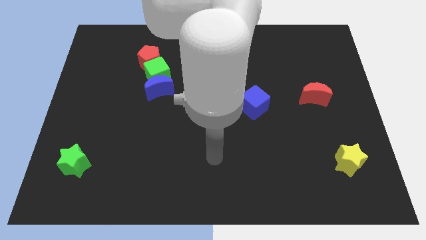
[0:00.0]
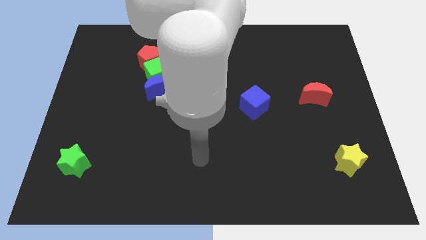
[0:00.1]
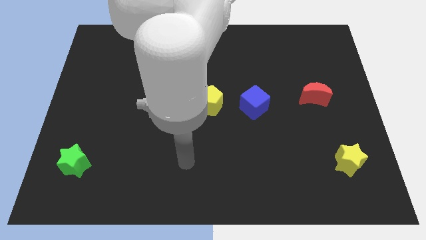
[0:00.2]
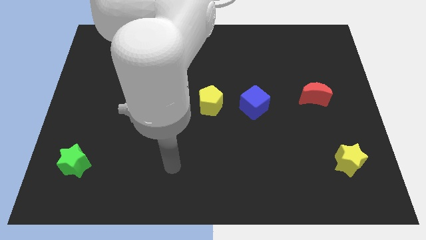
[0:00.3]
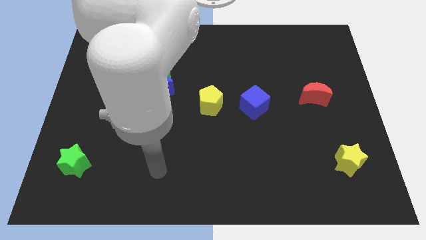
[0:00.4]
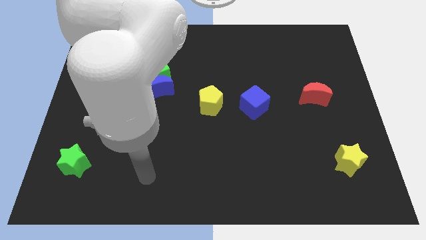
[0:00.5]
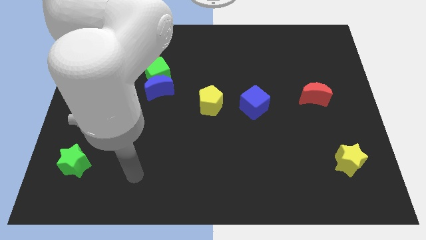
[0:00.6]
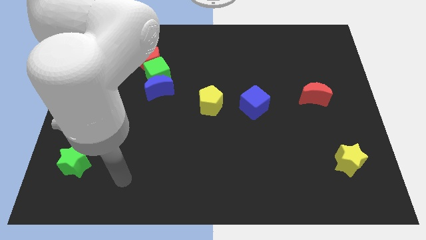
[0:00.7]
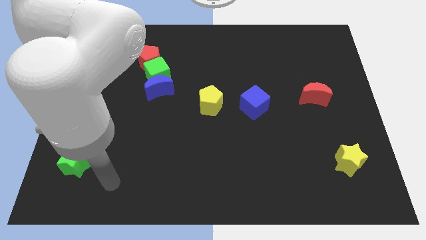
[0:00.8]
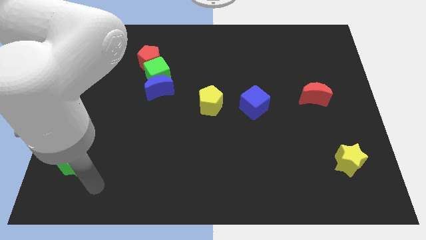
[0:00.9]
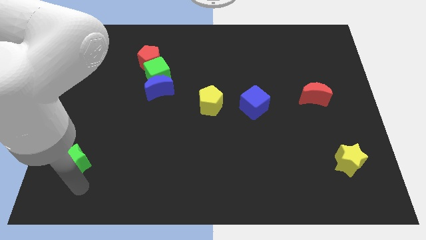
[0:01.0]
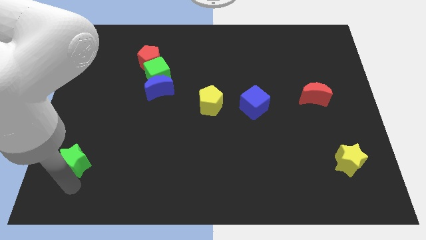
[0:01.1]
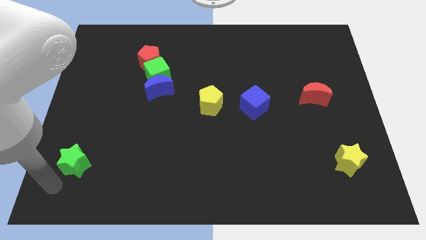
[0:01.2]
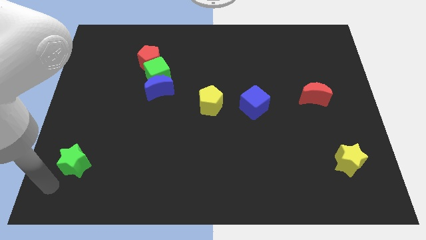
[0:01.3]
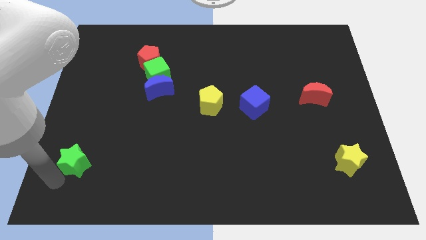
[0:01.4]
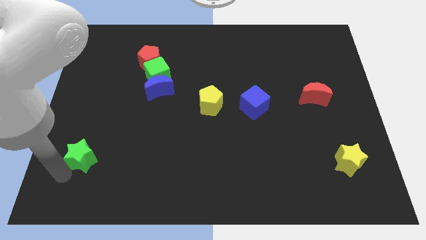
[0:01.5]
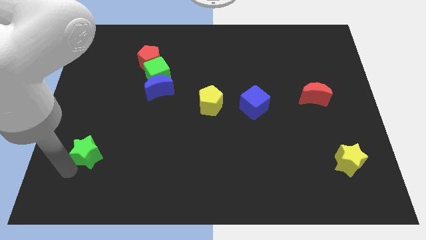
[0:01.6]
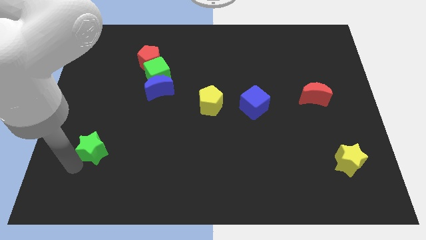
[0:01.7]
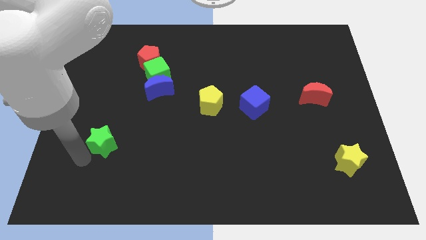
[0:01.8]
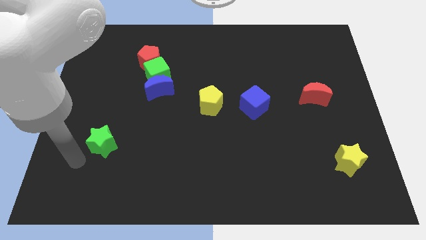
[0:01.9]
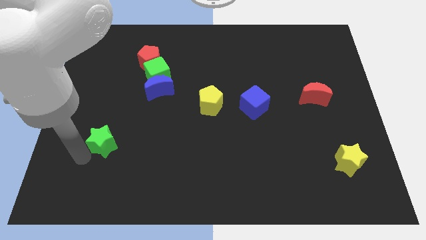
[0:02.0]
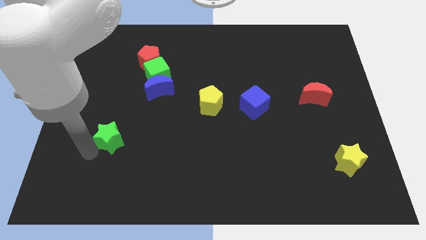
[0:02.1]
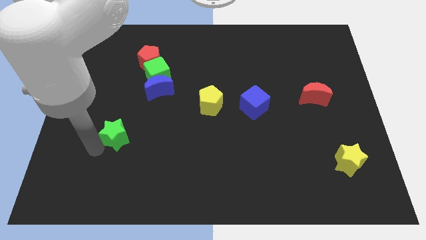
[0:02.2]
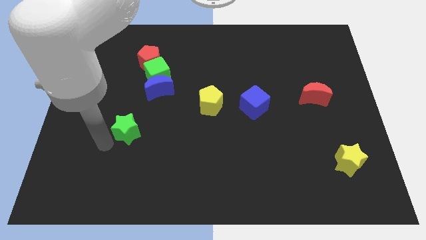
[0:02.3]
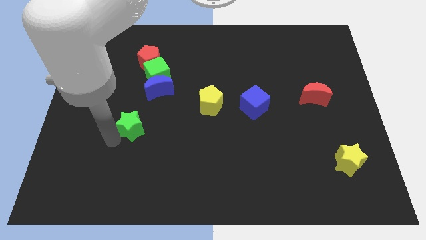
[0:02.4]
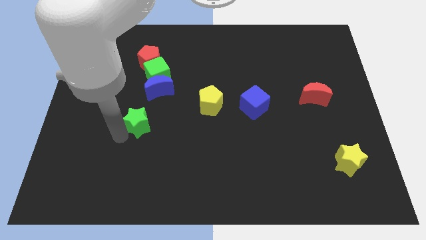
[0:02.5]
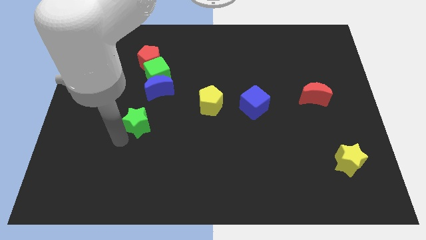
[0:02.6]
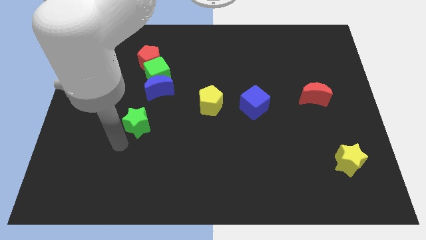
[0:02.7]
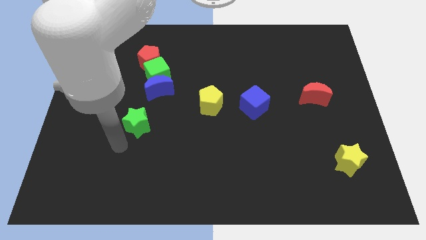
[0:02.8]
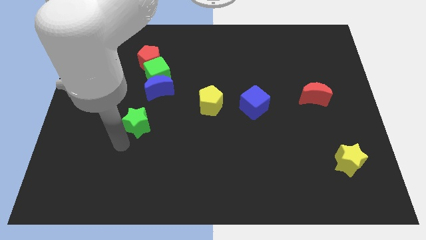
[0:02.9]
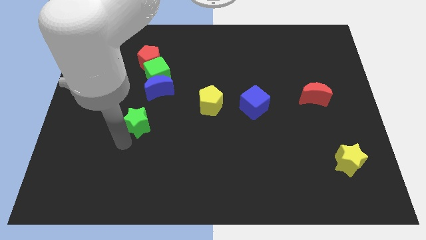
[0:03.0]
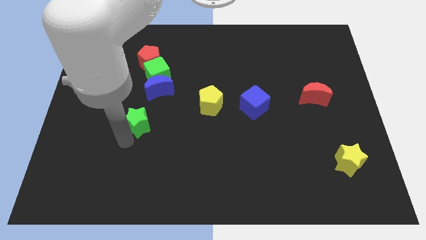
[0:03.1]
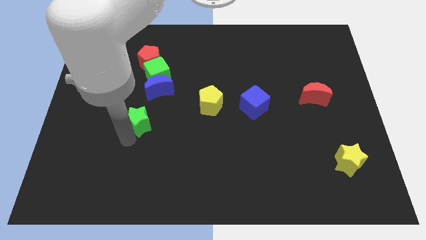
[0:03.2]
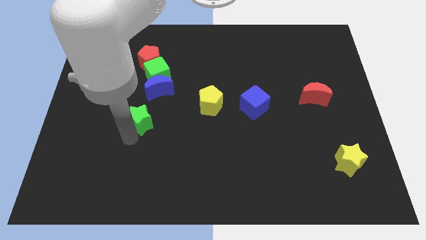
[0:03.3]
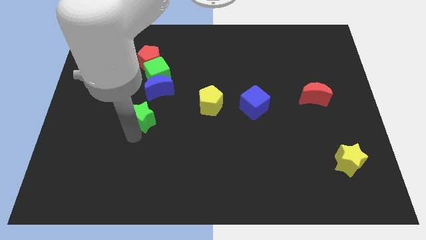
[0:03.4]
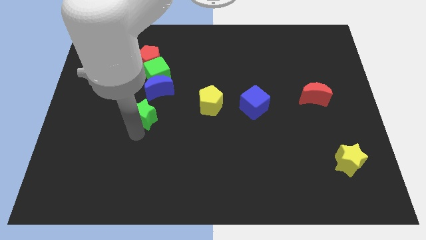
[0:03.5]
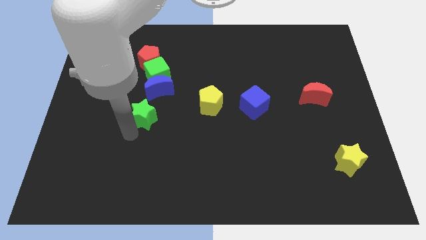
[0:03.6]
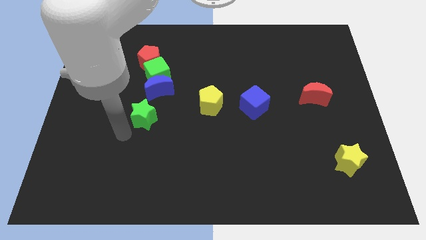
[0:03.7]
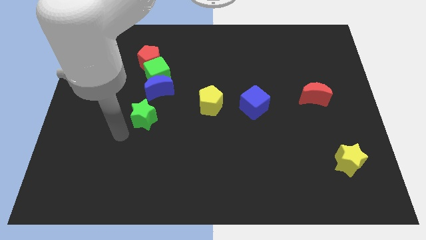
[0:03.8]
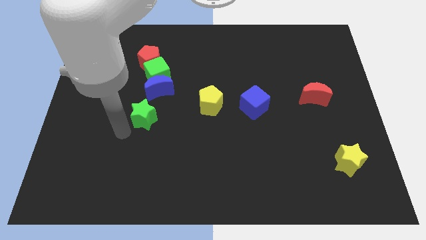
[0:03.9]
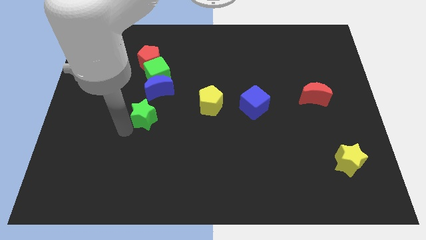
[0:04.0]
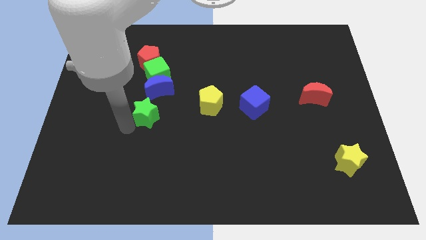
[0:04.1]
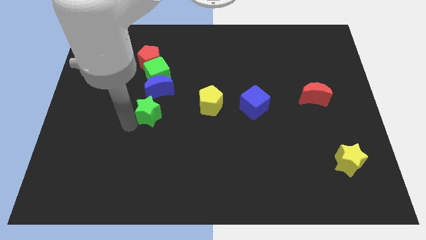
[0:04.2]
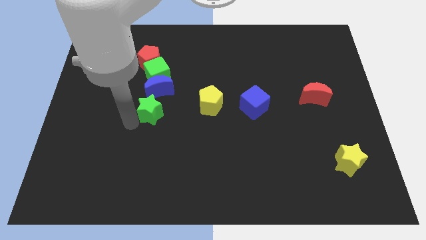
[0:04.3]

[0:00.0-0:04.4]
slide the green star up and right diagonally

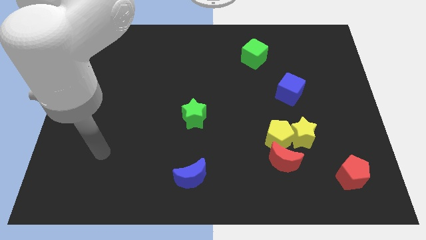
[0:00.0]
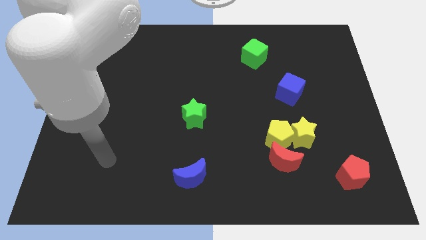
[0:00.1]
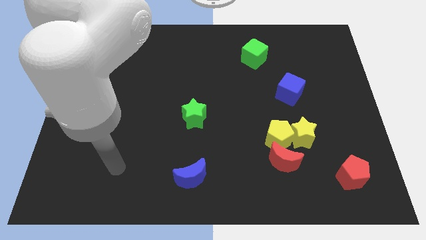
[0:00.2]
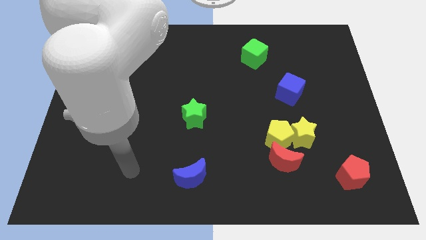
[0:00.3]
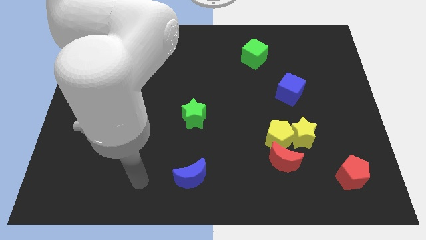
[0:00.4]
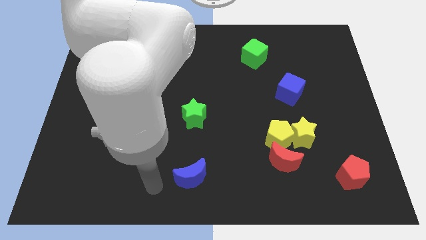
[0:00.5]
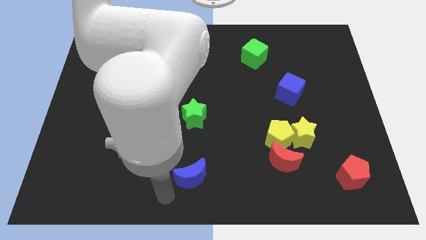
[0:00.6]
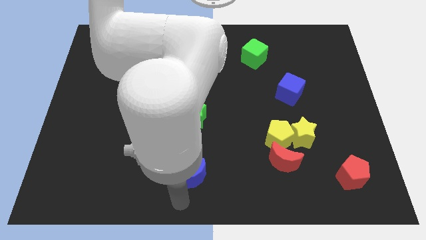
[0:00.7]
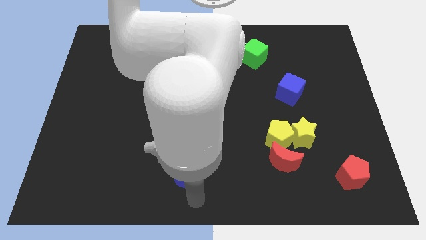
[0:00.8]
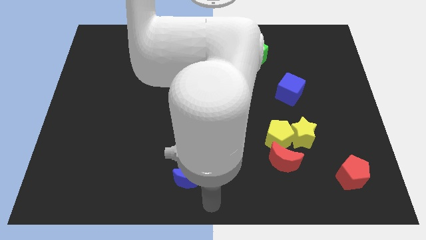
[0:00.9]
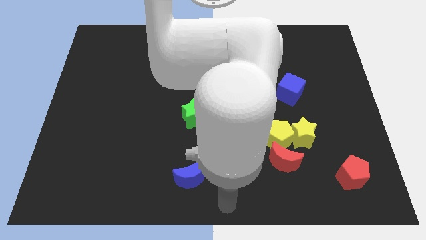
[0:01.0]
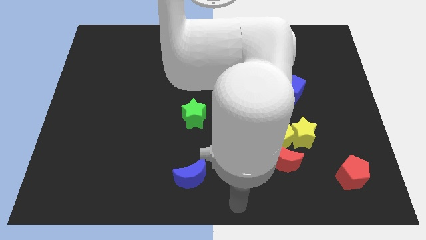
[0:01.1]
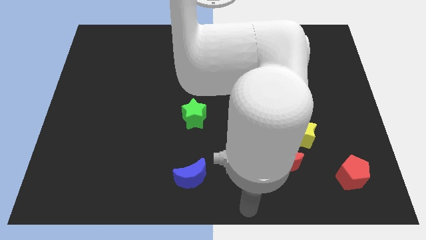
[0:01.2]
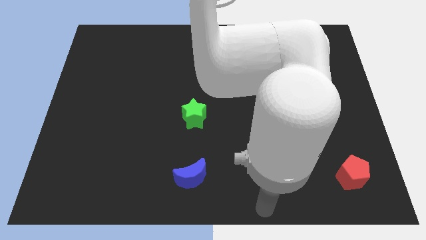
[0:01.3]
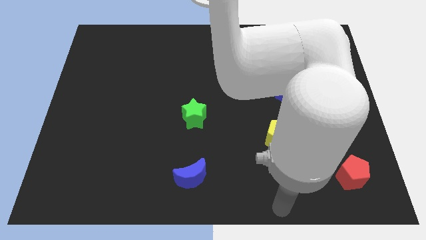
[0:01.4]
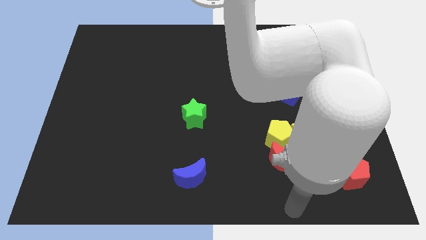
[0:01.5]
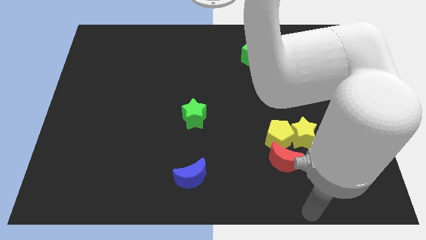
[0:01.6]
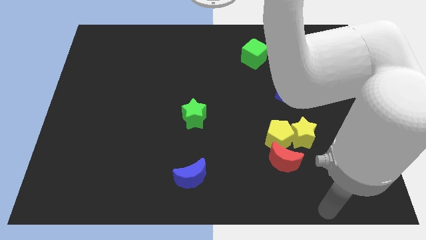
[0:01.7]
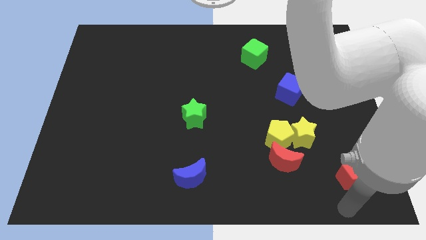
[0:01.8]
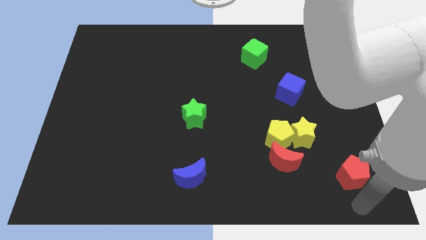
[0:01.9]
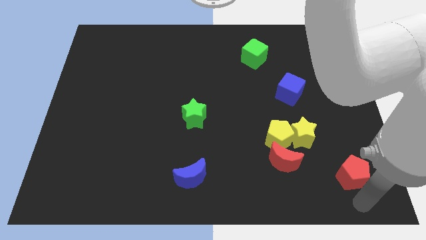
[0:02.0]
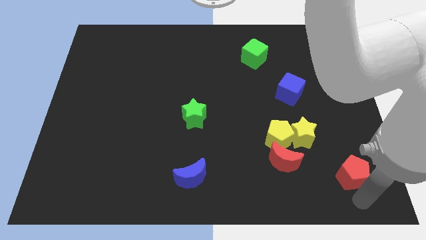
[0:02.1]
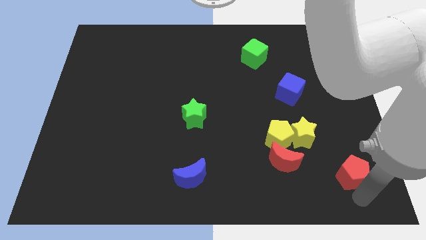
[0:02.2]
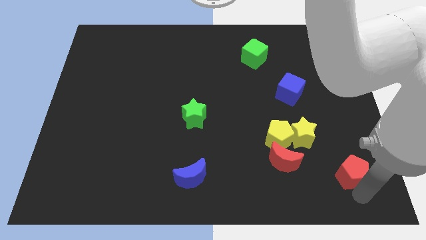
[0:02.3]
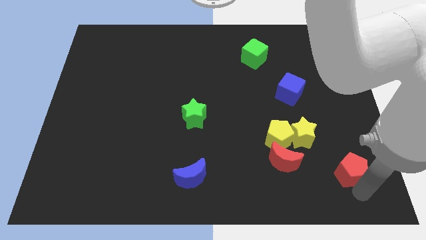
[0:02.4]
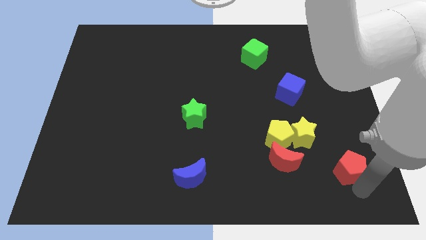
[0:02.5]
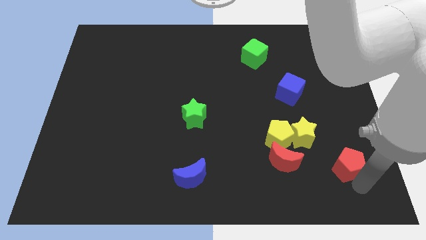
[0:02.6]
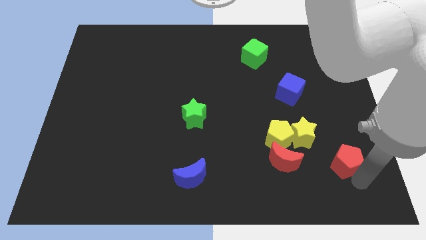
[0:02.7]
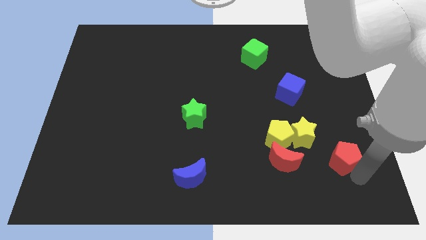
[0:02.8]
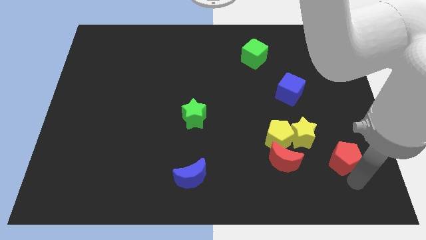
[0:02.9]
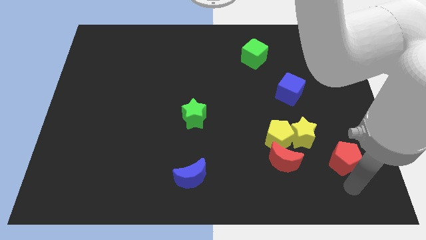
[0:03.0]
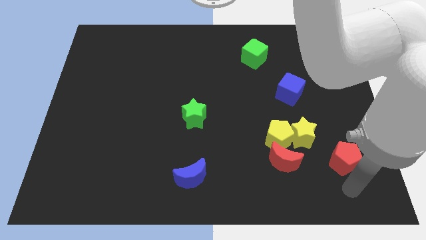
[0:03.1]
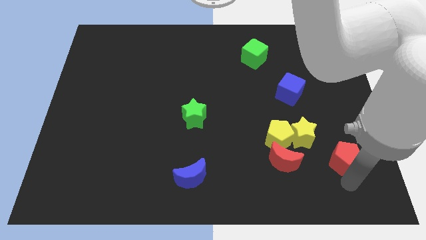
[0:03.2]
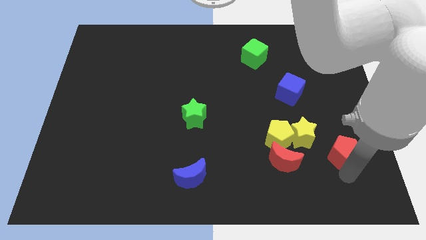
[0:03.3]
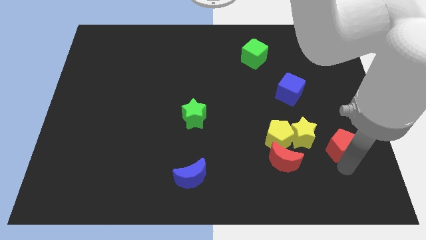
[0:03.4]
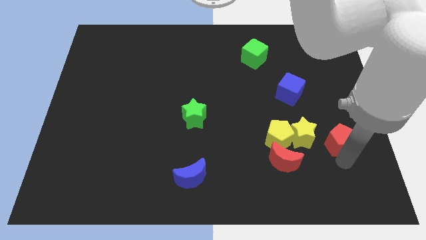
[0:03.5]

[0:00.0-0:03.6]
slightly slide the red pentagon upwards
